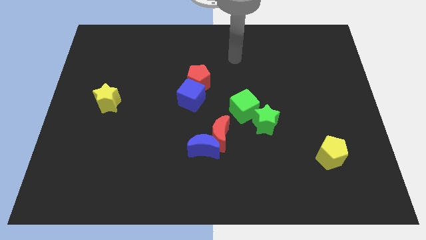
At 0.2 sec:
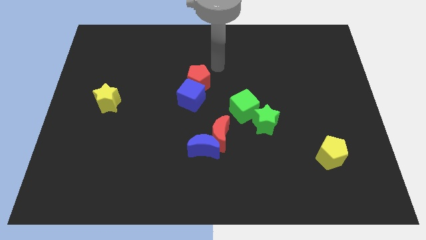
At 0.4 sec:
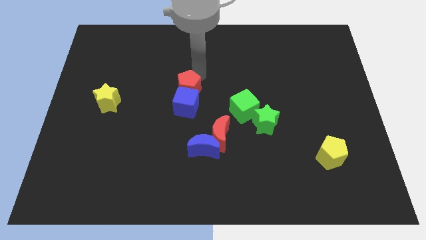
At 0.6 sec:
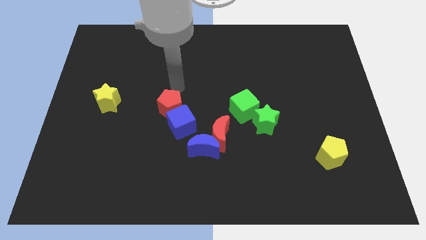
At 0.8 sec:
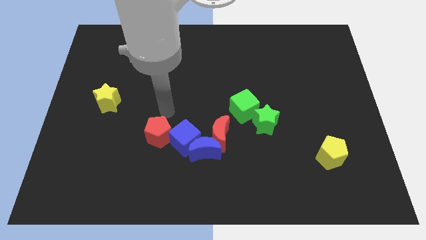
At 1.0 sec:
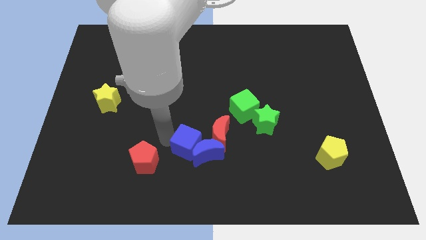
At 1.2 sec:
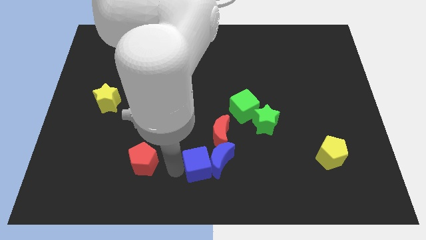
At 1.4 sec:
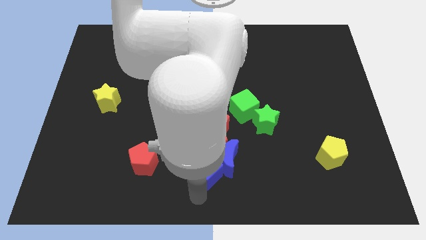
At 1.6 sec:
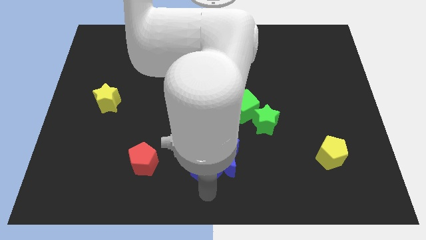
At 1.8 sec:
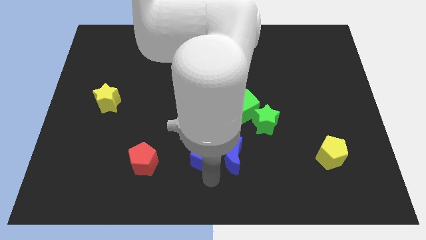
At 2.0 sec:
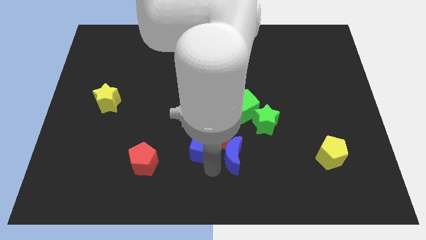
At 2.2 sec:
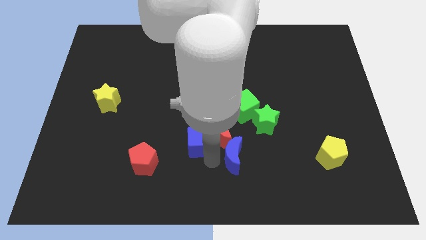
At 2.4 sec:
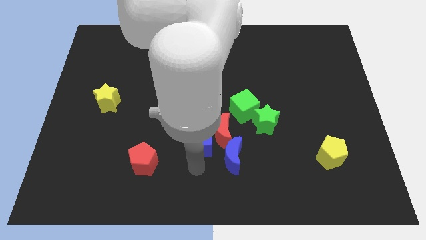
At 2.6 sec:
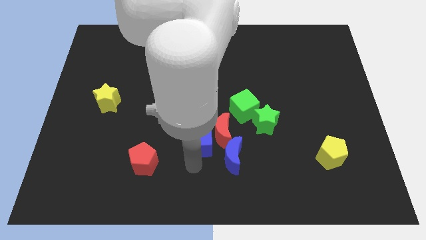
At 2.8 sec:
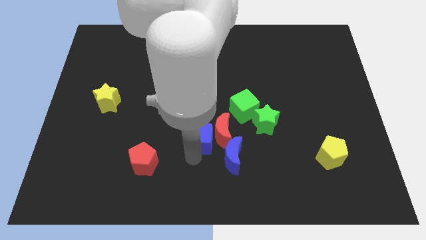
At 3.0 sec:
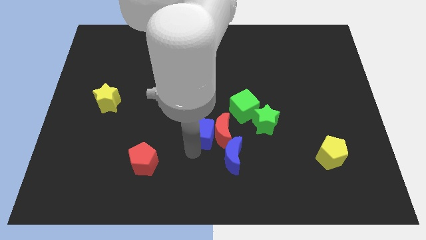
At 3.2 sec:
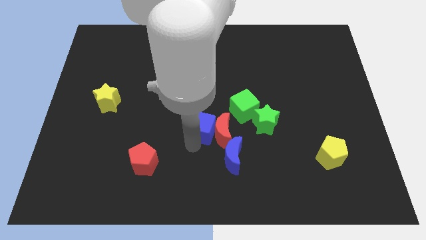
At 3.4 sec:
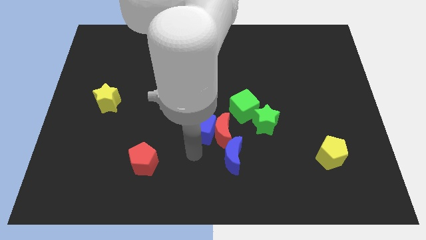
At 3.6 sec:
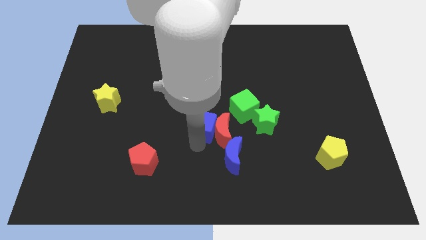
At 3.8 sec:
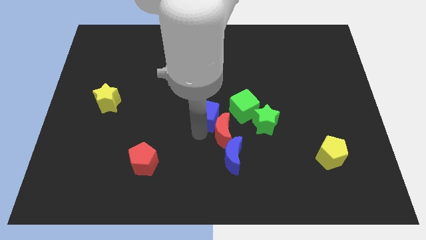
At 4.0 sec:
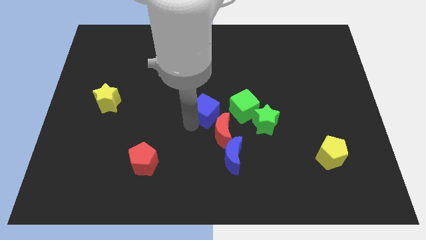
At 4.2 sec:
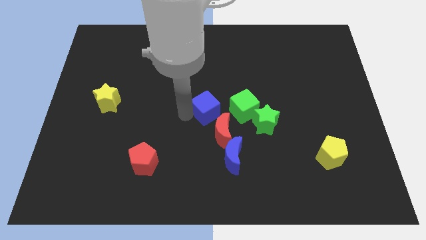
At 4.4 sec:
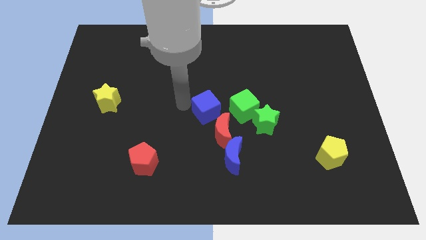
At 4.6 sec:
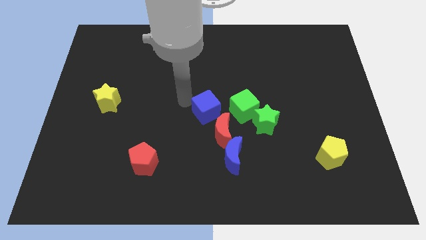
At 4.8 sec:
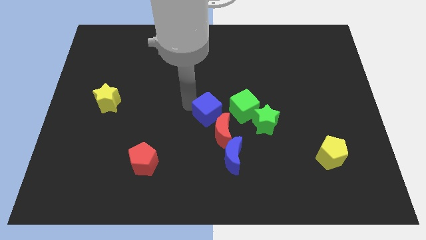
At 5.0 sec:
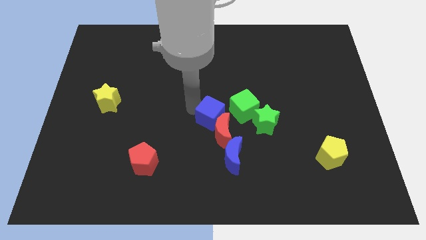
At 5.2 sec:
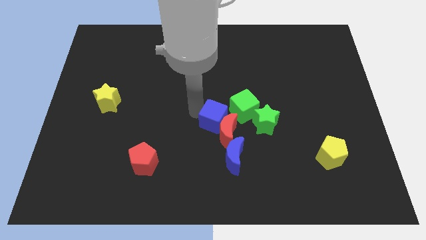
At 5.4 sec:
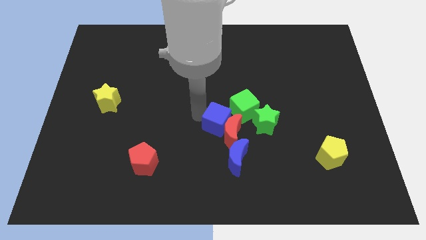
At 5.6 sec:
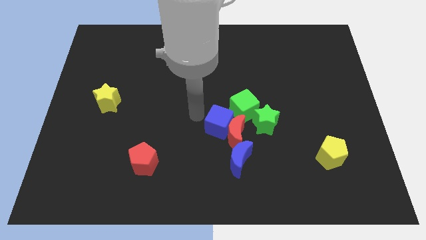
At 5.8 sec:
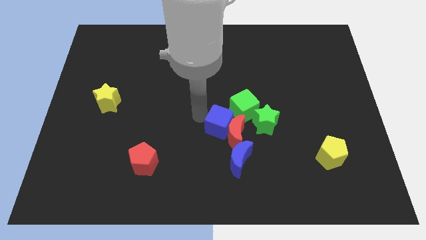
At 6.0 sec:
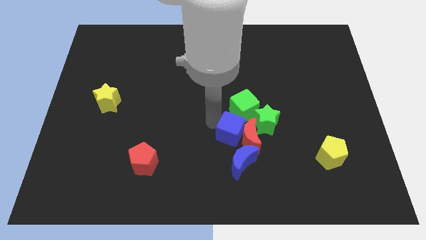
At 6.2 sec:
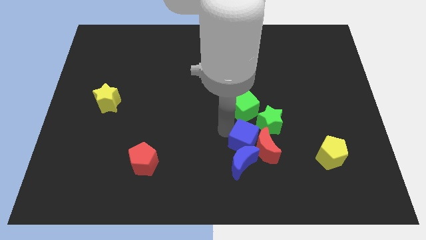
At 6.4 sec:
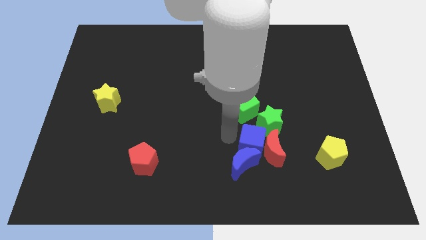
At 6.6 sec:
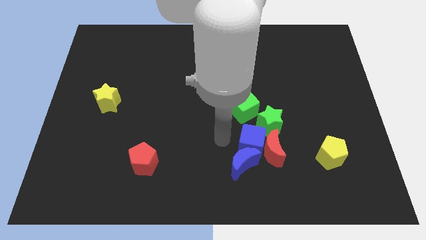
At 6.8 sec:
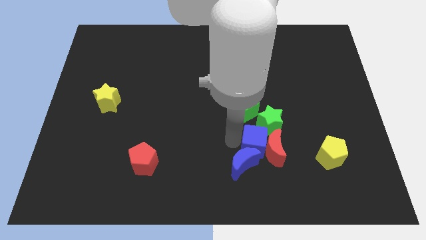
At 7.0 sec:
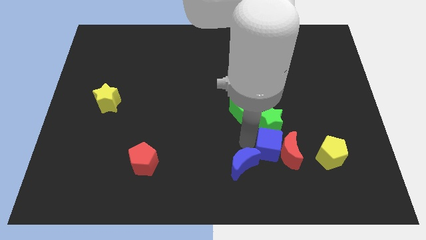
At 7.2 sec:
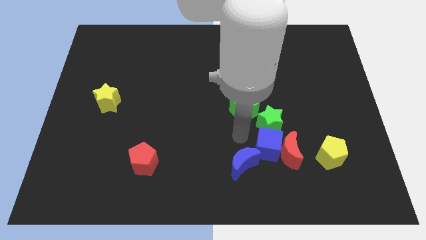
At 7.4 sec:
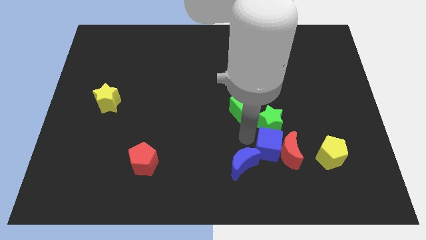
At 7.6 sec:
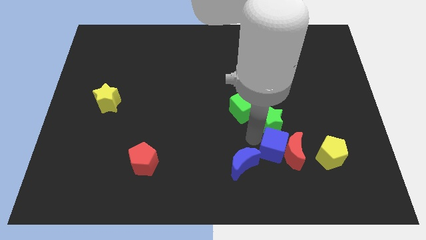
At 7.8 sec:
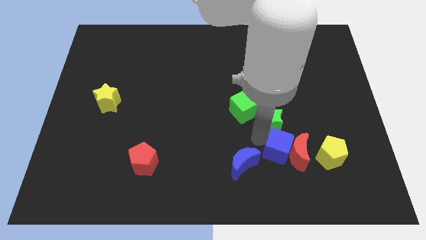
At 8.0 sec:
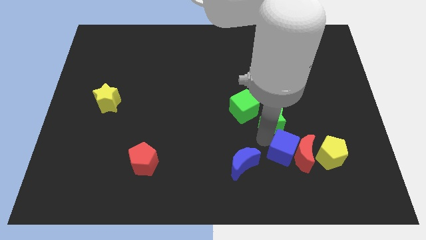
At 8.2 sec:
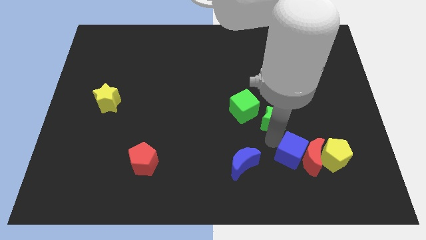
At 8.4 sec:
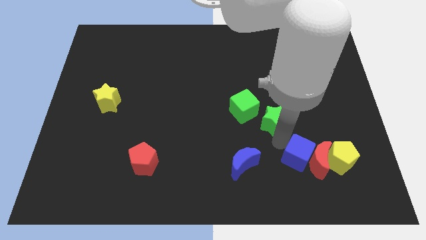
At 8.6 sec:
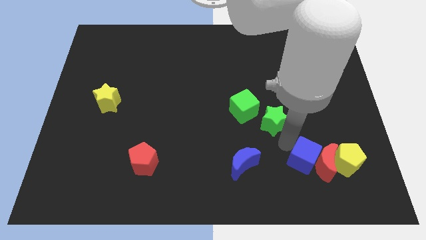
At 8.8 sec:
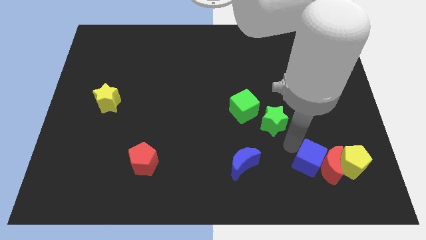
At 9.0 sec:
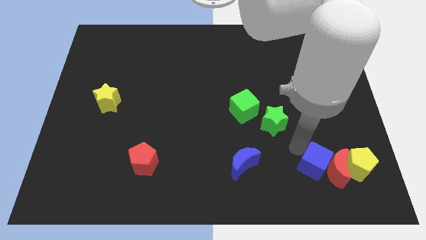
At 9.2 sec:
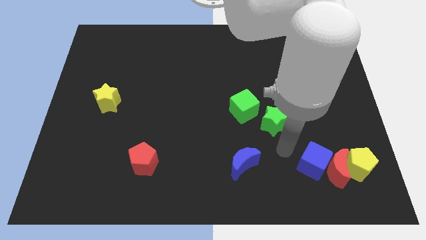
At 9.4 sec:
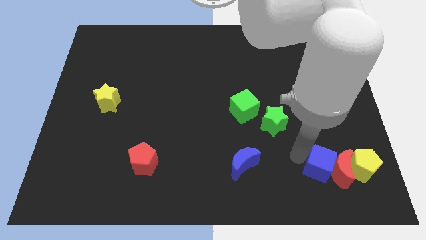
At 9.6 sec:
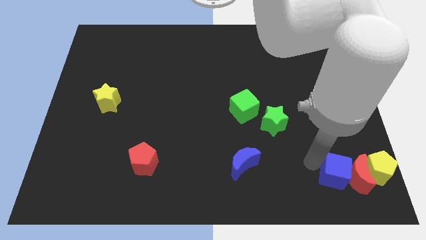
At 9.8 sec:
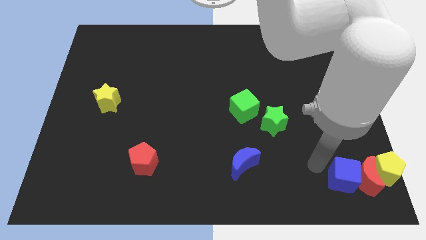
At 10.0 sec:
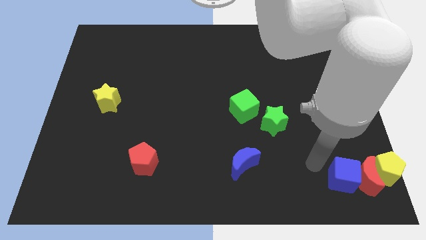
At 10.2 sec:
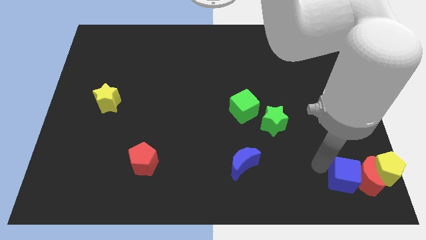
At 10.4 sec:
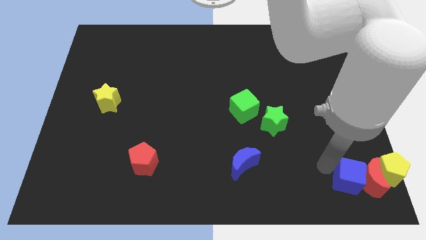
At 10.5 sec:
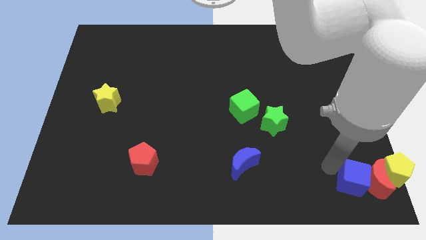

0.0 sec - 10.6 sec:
put the blue cube to the bottom right corner

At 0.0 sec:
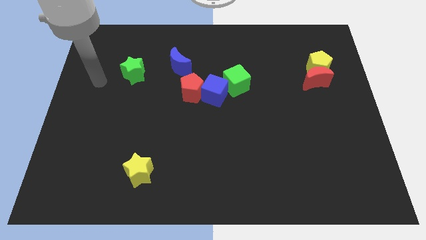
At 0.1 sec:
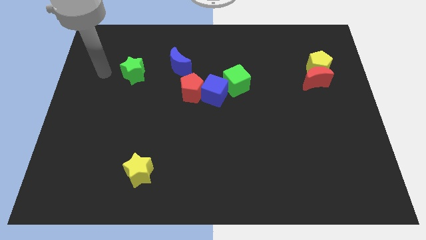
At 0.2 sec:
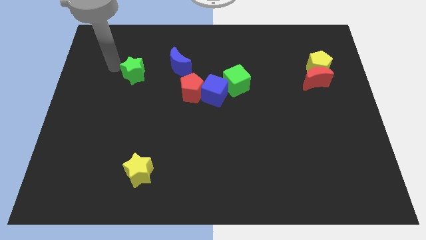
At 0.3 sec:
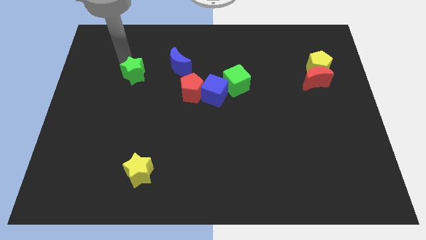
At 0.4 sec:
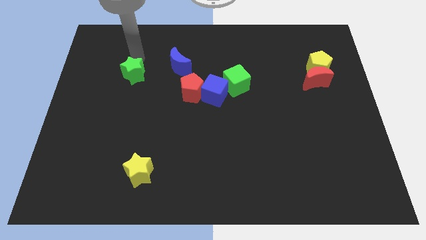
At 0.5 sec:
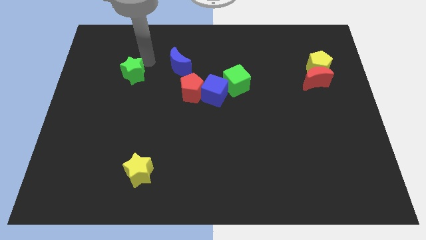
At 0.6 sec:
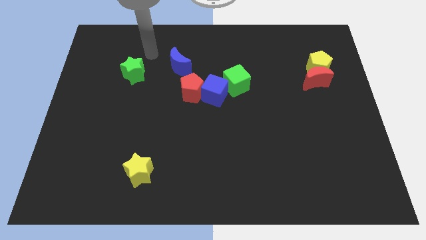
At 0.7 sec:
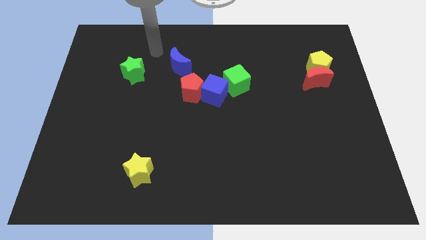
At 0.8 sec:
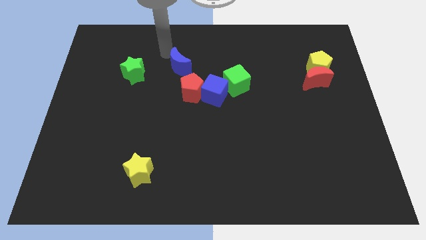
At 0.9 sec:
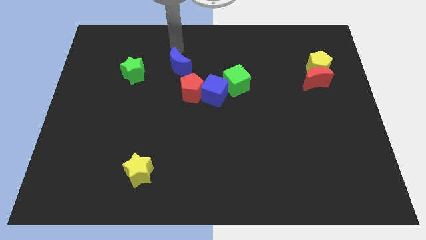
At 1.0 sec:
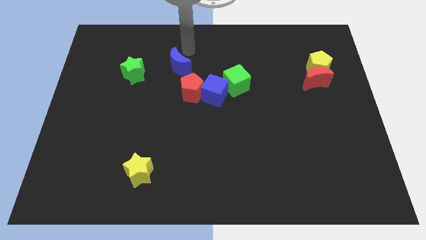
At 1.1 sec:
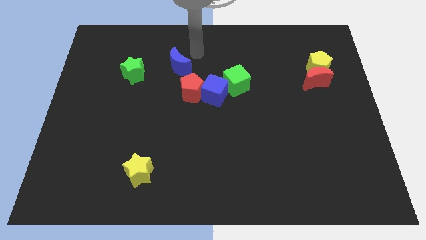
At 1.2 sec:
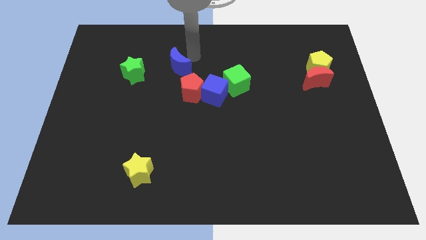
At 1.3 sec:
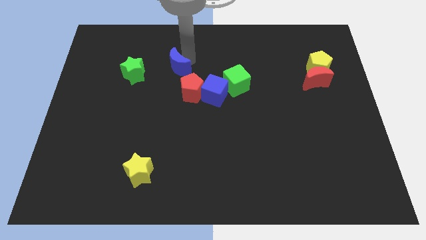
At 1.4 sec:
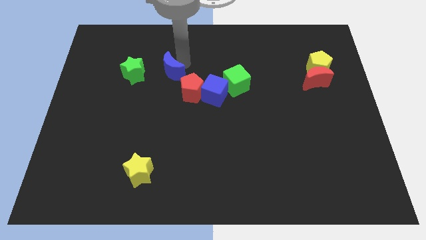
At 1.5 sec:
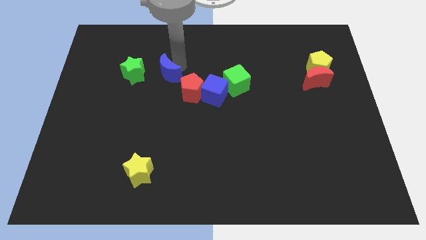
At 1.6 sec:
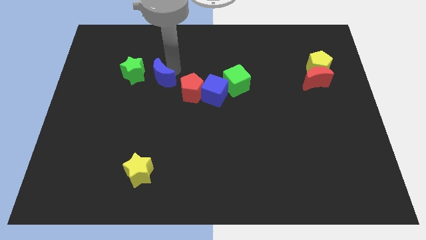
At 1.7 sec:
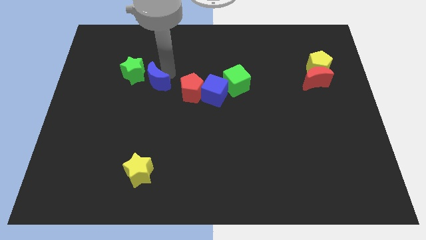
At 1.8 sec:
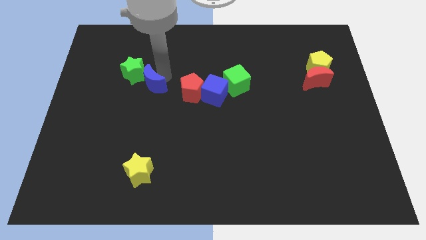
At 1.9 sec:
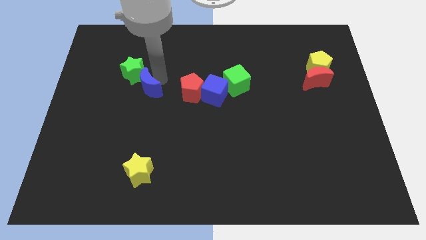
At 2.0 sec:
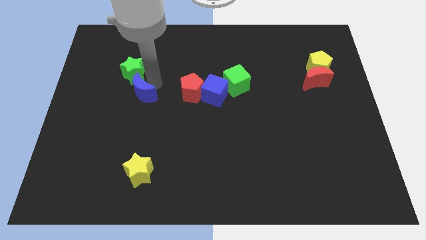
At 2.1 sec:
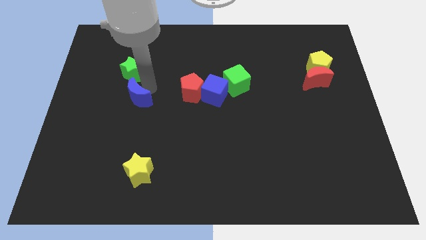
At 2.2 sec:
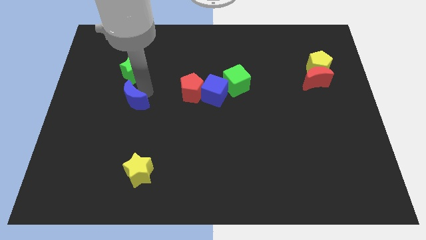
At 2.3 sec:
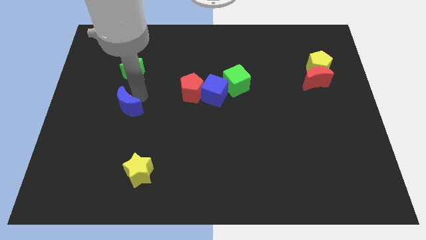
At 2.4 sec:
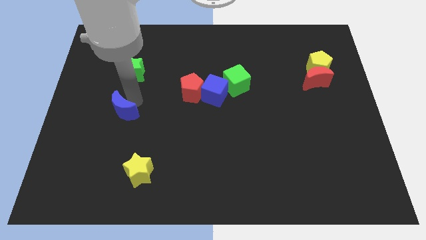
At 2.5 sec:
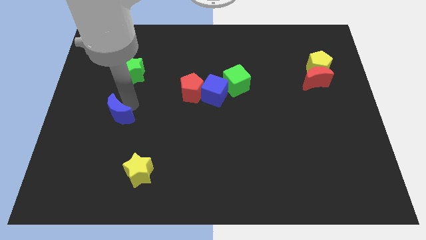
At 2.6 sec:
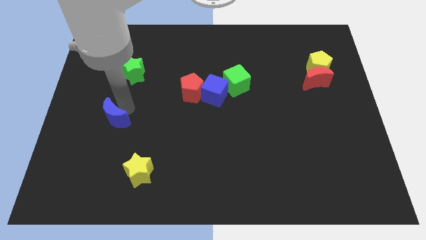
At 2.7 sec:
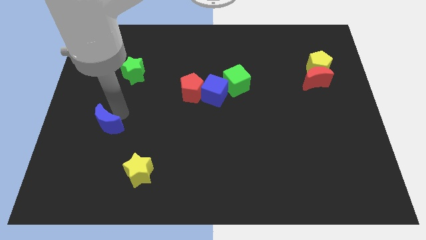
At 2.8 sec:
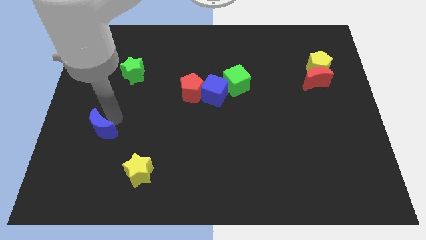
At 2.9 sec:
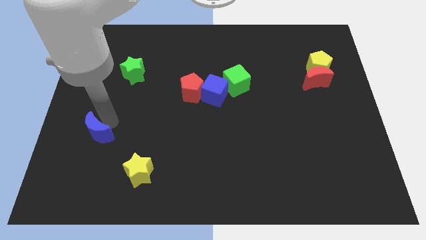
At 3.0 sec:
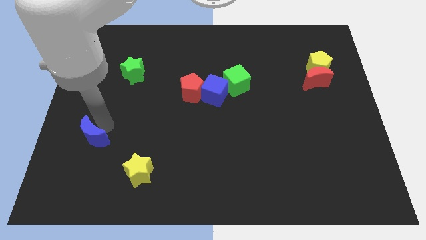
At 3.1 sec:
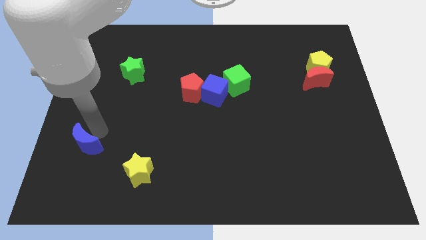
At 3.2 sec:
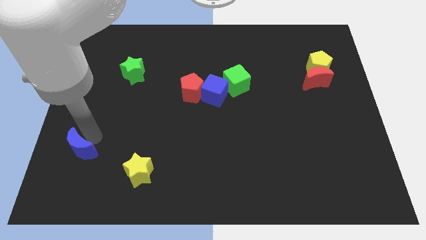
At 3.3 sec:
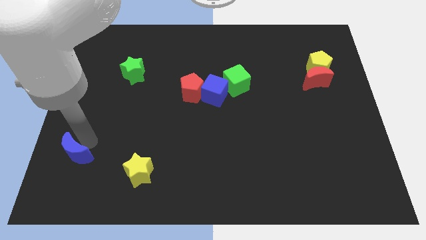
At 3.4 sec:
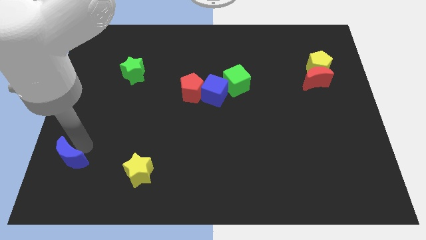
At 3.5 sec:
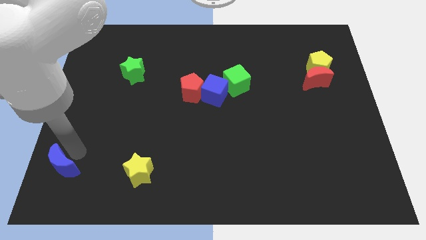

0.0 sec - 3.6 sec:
move the blue moon to the bottom left corner
